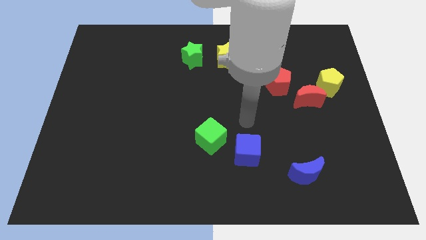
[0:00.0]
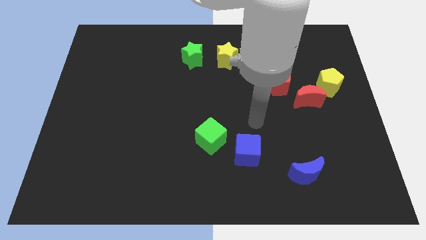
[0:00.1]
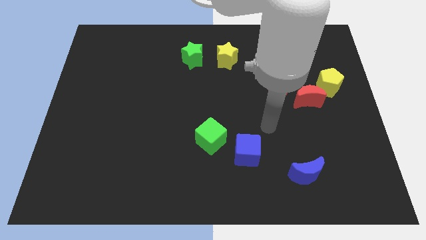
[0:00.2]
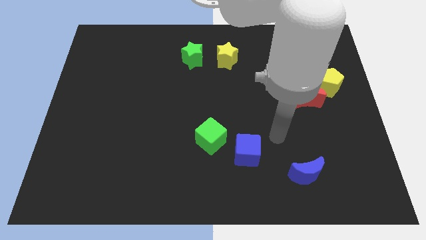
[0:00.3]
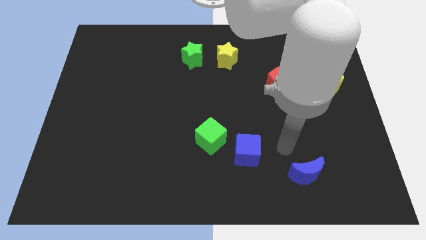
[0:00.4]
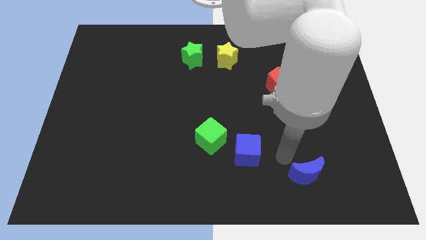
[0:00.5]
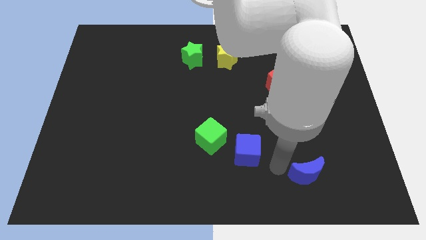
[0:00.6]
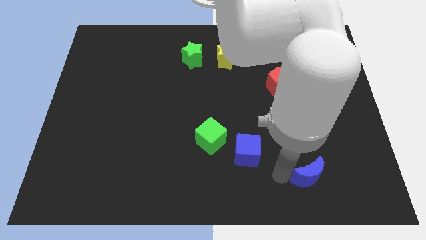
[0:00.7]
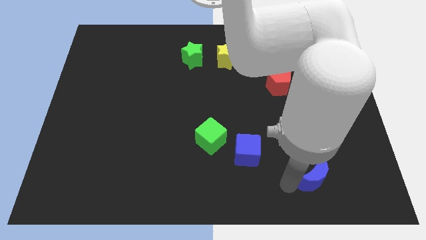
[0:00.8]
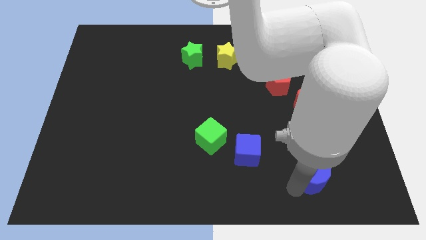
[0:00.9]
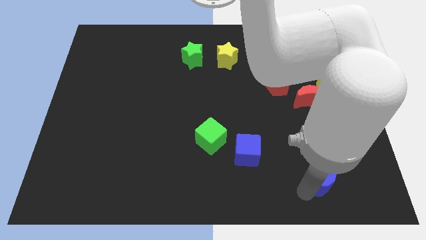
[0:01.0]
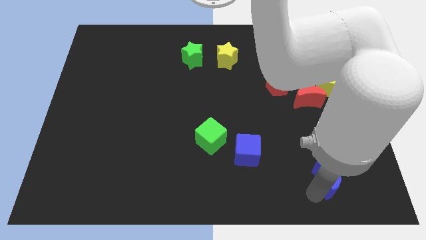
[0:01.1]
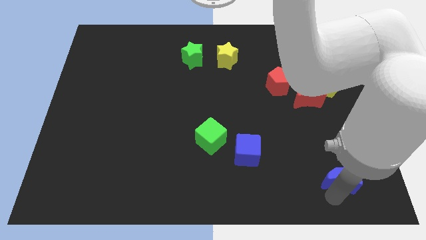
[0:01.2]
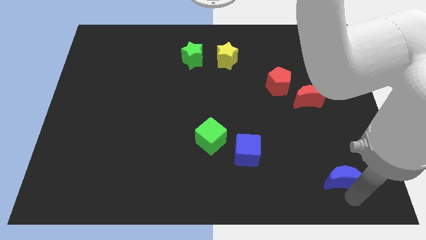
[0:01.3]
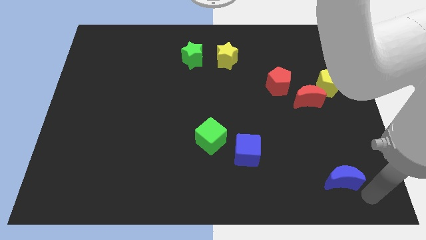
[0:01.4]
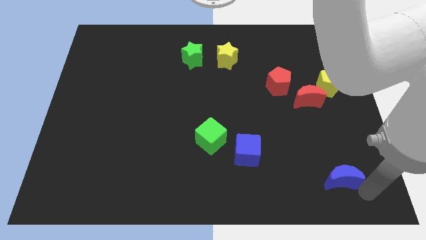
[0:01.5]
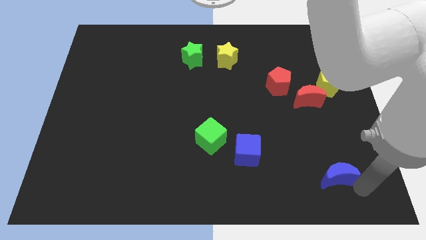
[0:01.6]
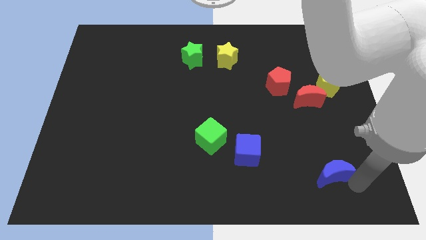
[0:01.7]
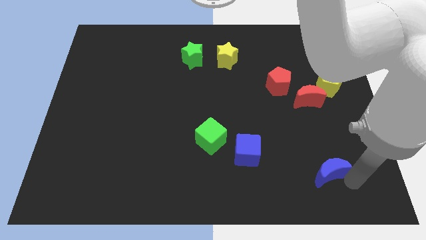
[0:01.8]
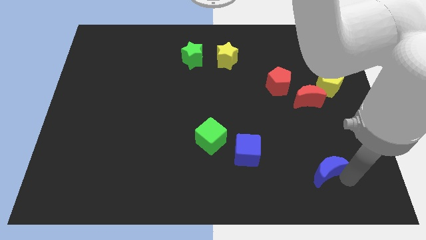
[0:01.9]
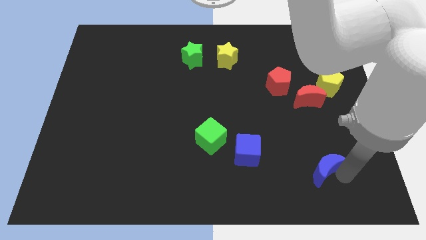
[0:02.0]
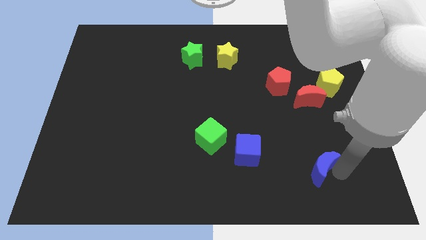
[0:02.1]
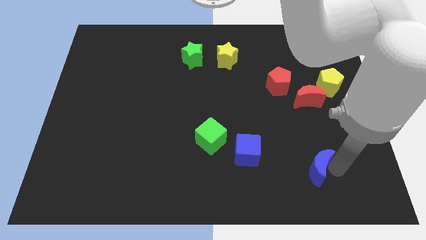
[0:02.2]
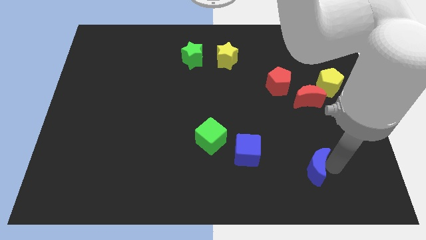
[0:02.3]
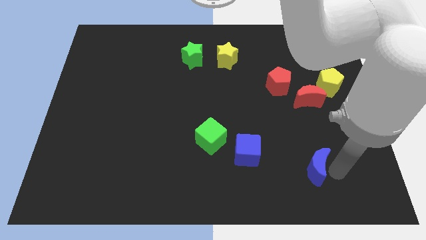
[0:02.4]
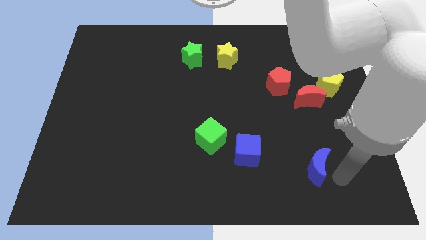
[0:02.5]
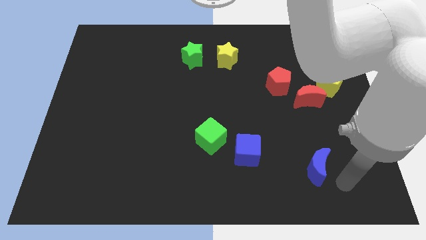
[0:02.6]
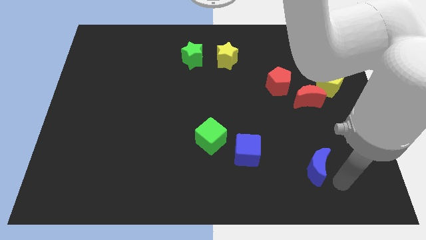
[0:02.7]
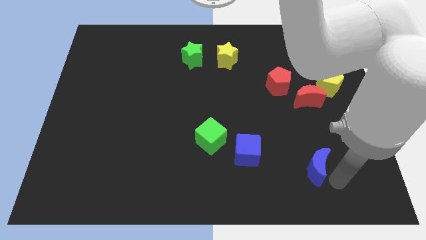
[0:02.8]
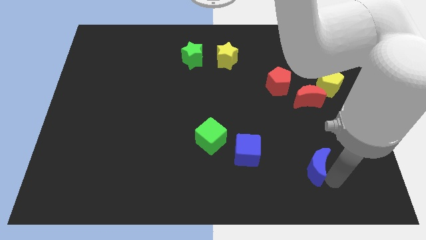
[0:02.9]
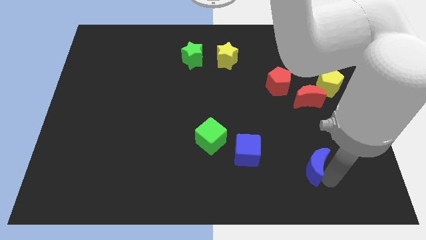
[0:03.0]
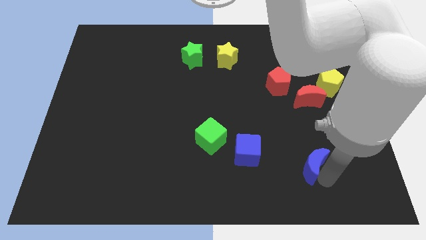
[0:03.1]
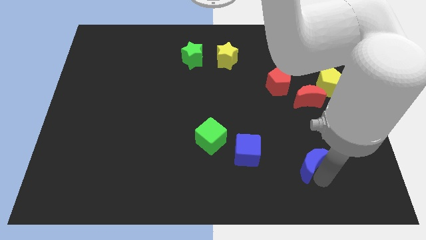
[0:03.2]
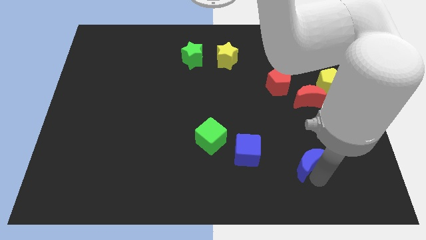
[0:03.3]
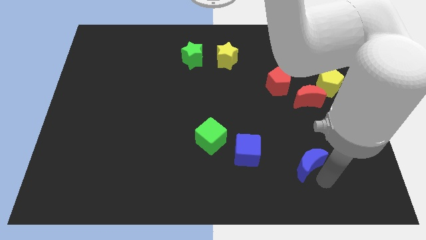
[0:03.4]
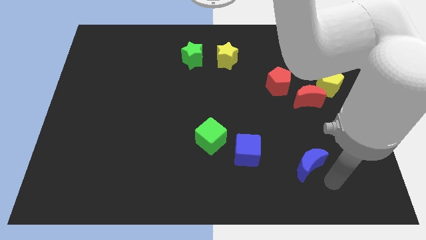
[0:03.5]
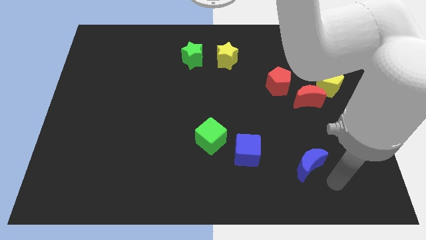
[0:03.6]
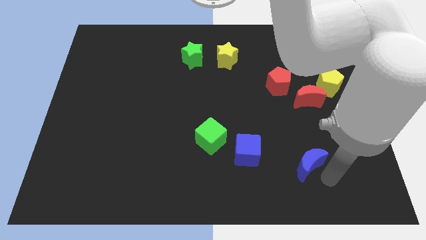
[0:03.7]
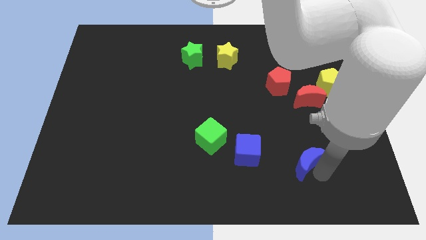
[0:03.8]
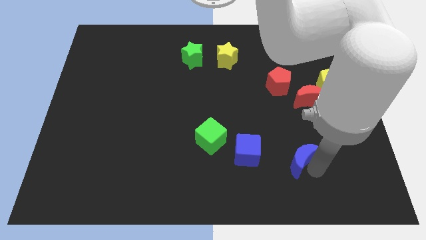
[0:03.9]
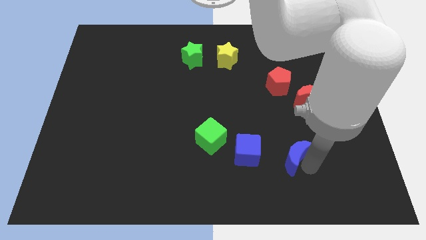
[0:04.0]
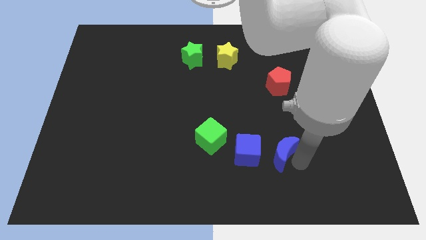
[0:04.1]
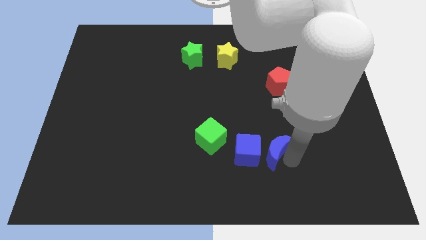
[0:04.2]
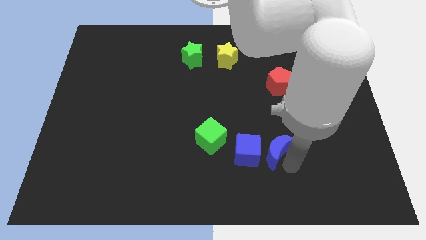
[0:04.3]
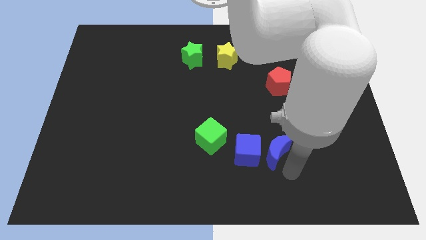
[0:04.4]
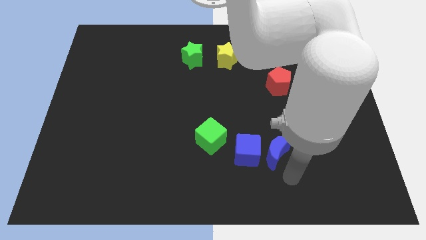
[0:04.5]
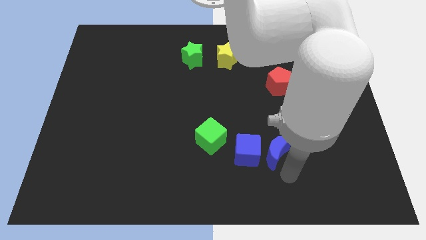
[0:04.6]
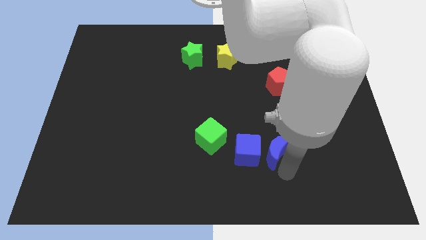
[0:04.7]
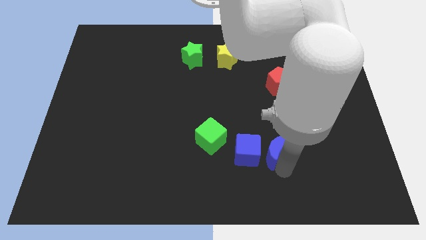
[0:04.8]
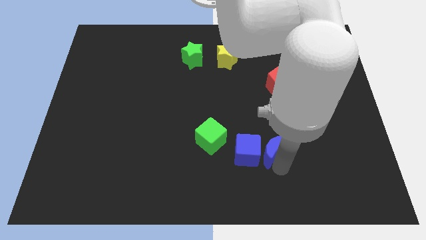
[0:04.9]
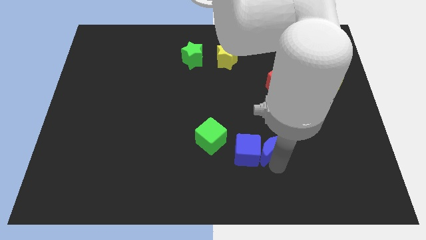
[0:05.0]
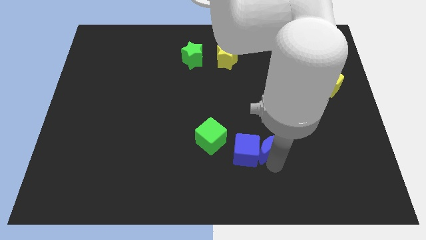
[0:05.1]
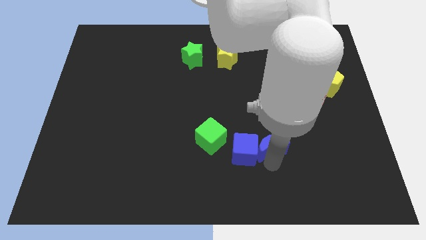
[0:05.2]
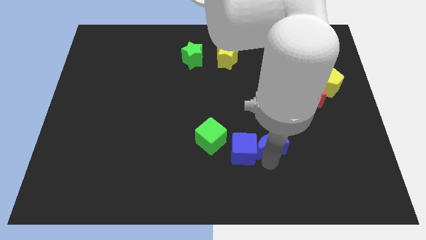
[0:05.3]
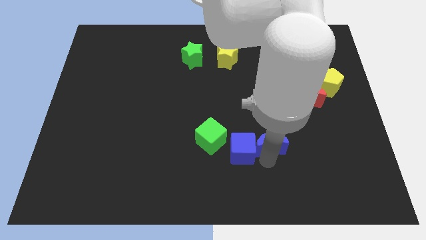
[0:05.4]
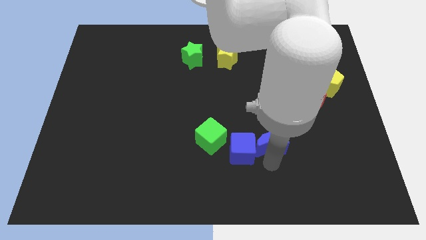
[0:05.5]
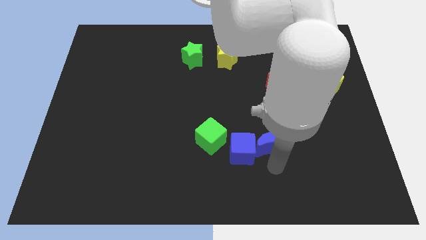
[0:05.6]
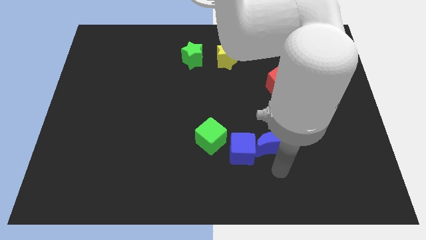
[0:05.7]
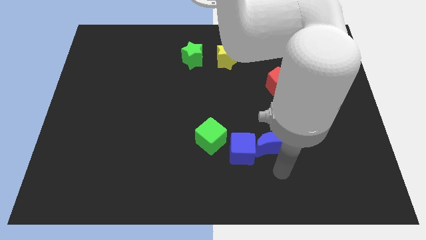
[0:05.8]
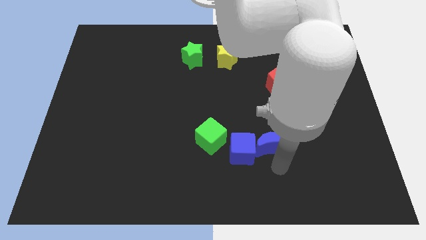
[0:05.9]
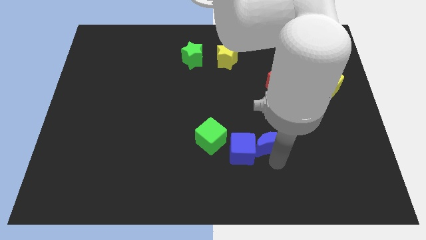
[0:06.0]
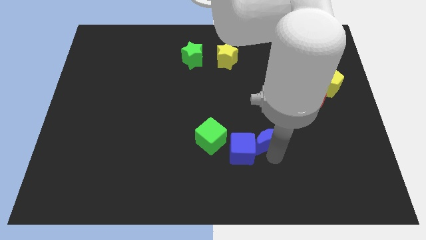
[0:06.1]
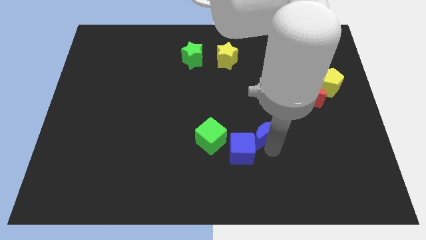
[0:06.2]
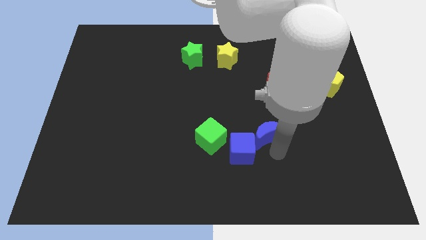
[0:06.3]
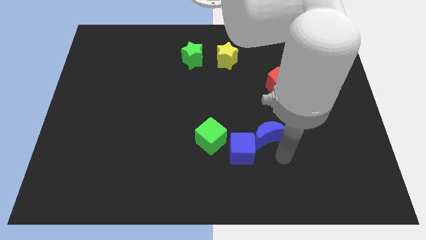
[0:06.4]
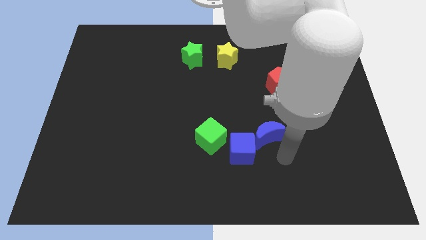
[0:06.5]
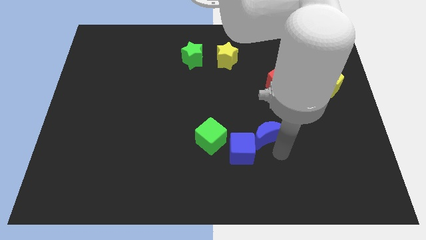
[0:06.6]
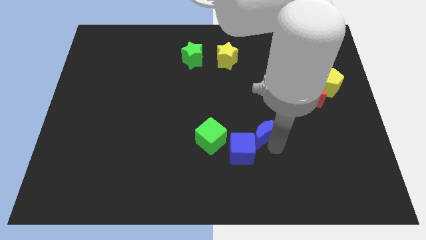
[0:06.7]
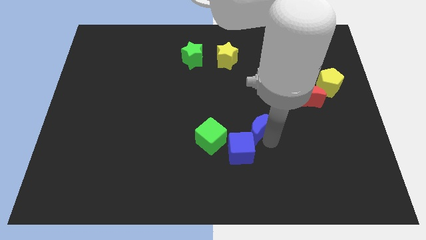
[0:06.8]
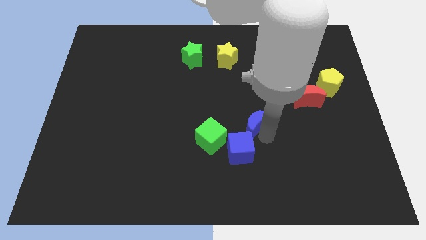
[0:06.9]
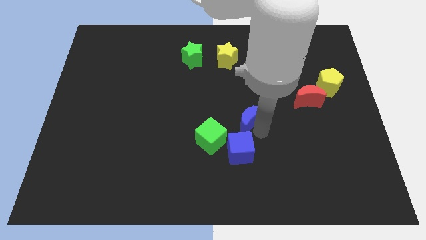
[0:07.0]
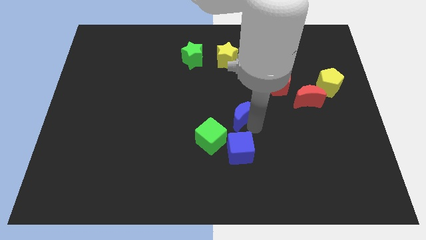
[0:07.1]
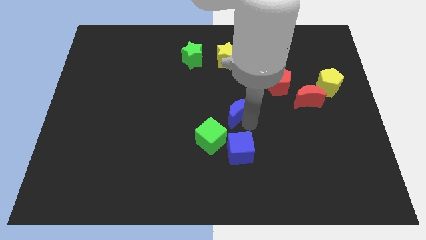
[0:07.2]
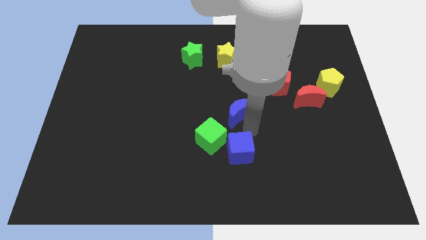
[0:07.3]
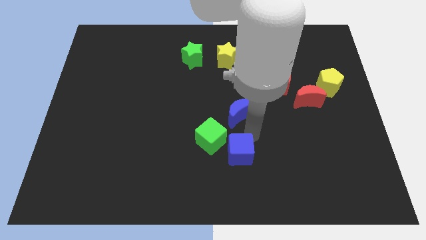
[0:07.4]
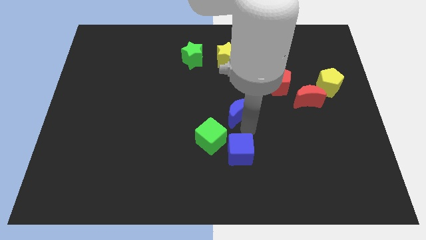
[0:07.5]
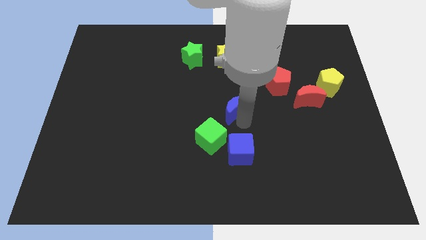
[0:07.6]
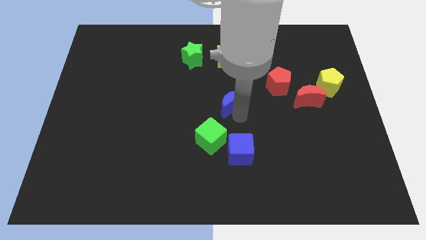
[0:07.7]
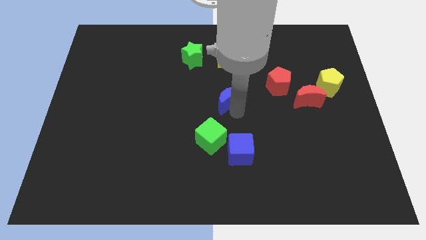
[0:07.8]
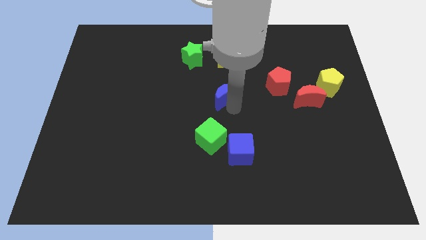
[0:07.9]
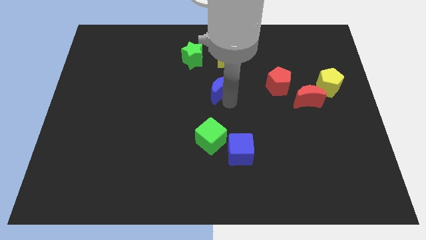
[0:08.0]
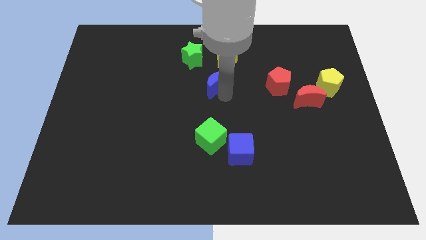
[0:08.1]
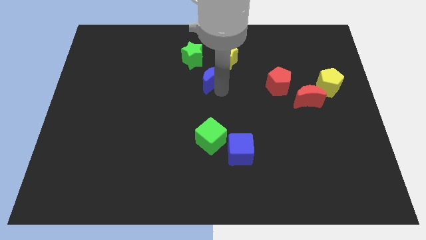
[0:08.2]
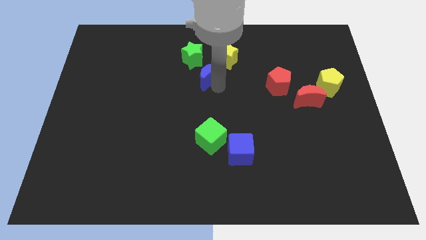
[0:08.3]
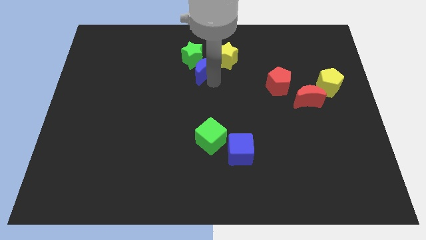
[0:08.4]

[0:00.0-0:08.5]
put the blue moon to the green star
